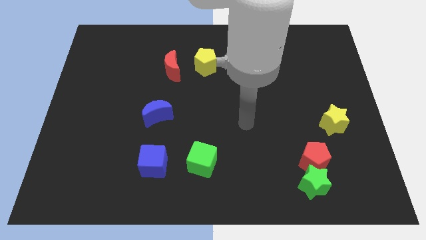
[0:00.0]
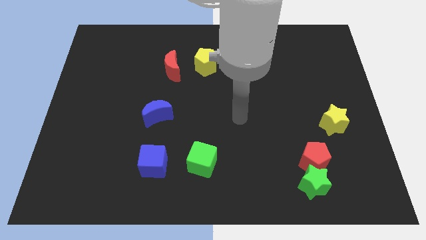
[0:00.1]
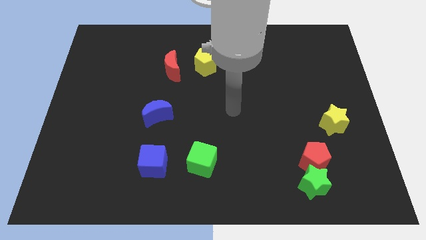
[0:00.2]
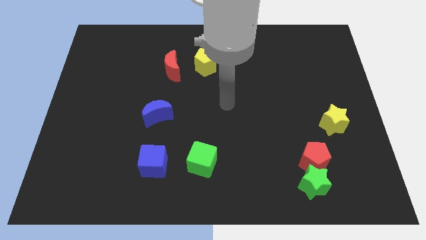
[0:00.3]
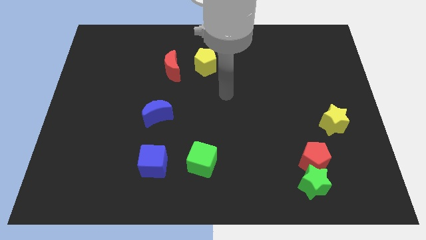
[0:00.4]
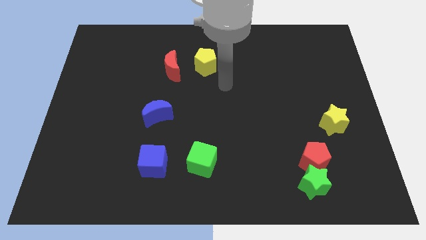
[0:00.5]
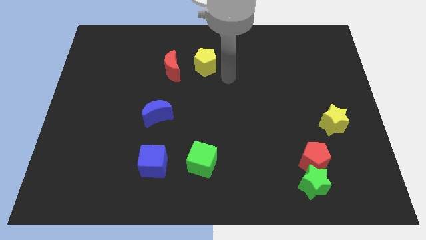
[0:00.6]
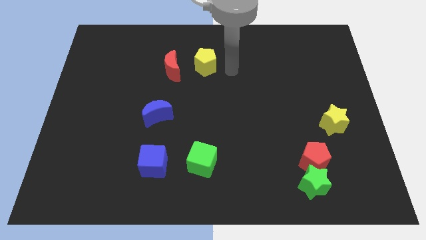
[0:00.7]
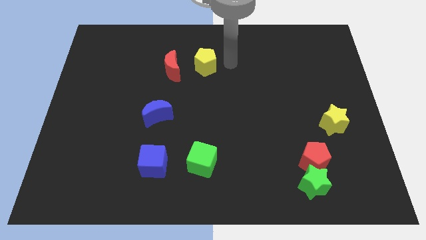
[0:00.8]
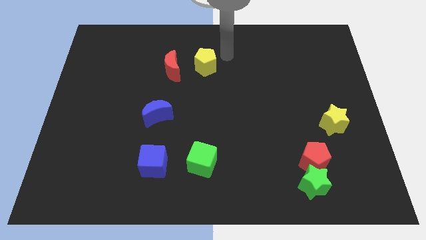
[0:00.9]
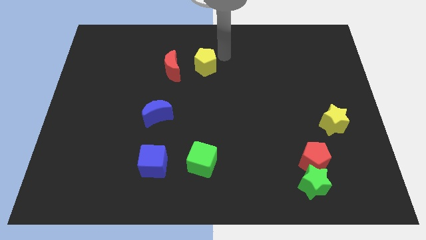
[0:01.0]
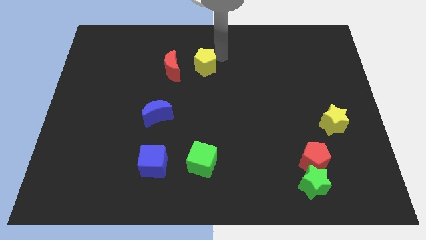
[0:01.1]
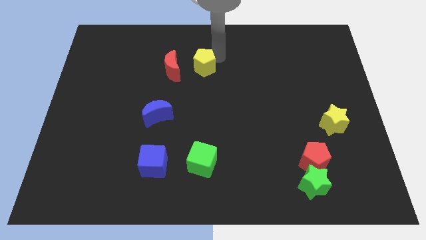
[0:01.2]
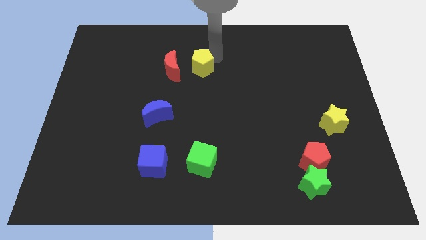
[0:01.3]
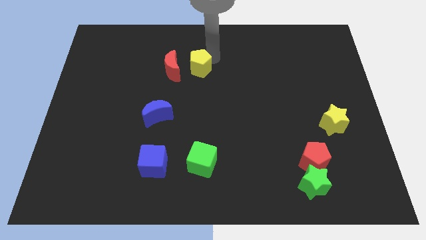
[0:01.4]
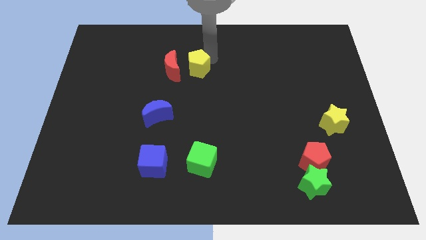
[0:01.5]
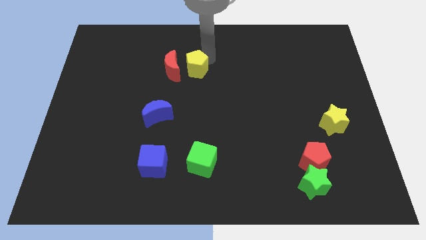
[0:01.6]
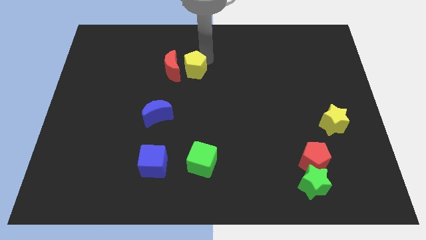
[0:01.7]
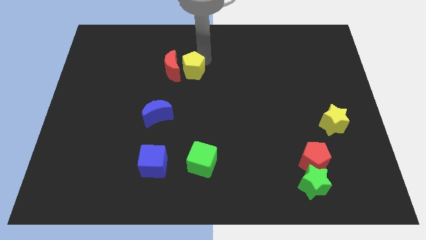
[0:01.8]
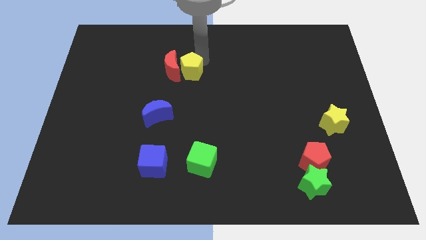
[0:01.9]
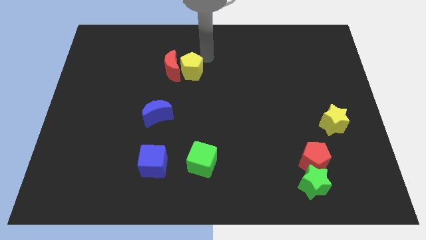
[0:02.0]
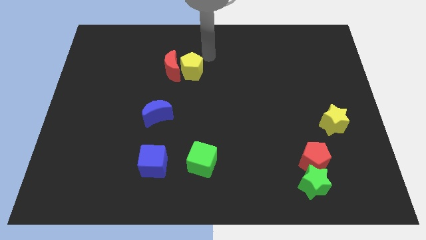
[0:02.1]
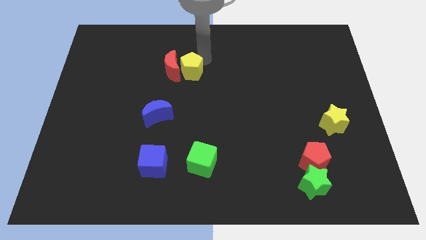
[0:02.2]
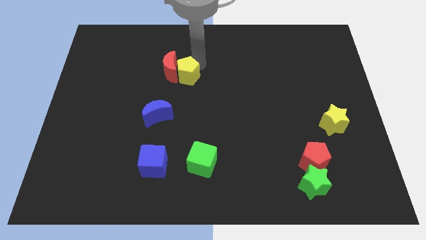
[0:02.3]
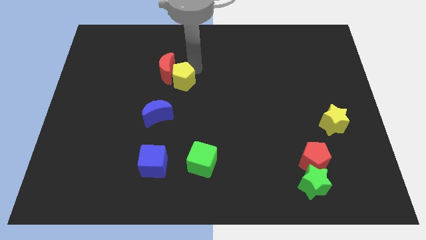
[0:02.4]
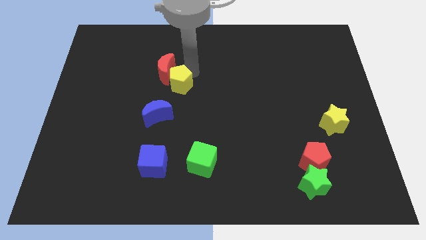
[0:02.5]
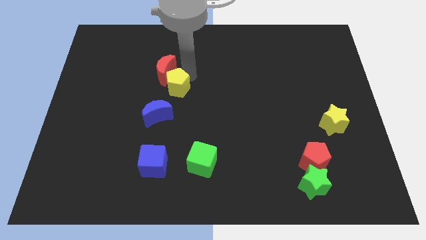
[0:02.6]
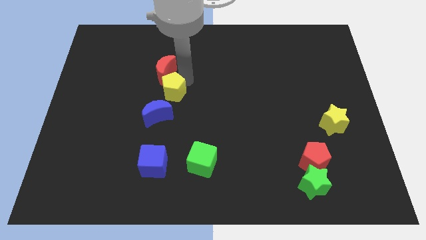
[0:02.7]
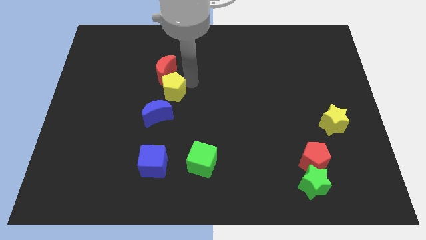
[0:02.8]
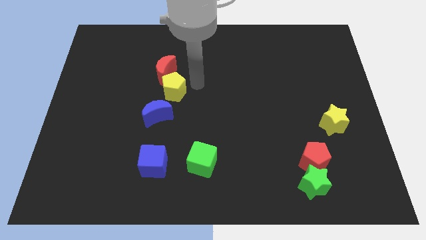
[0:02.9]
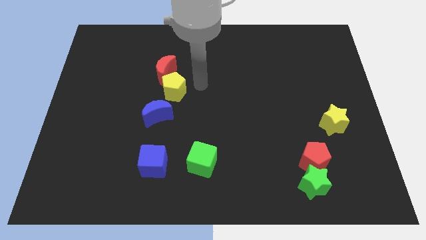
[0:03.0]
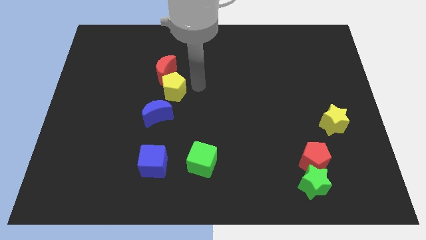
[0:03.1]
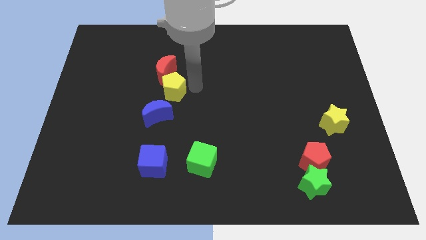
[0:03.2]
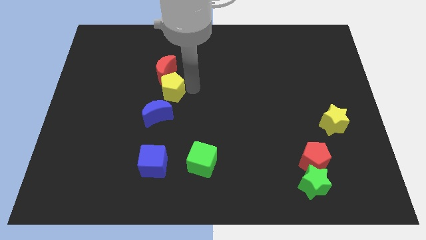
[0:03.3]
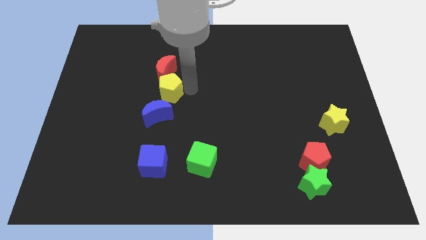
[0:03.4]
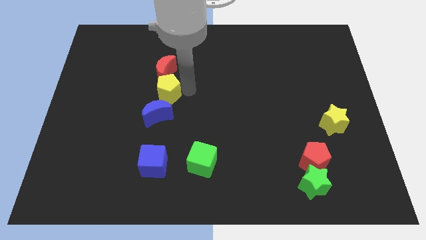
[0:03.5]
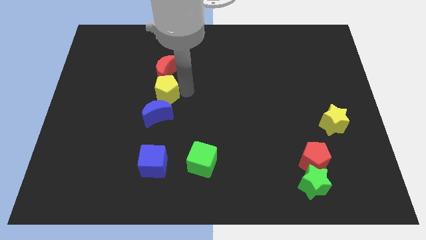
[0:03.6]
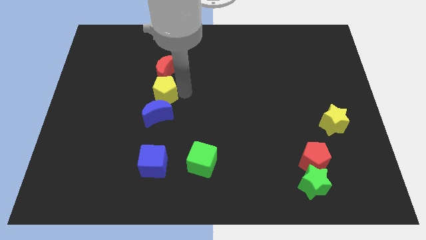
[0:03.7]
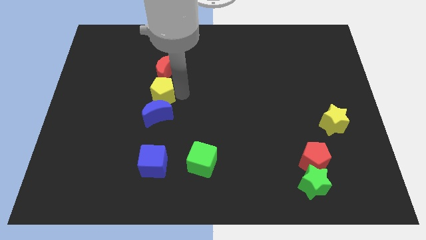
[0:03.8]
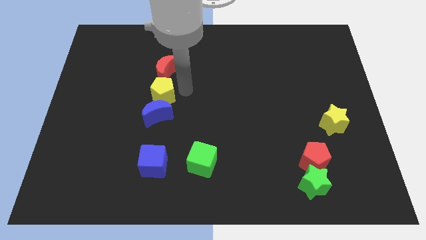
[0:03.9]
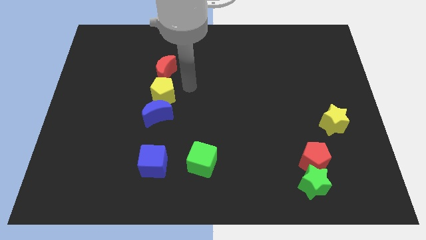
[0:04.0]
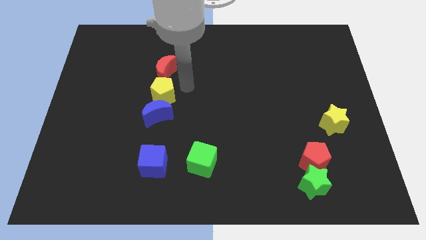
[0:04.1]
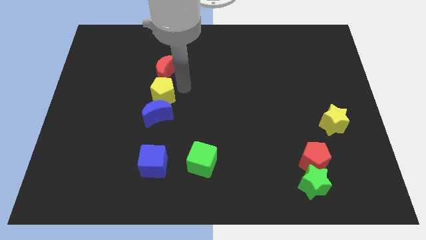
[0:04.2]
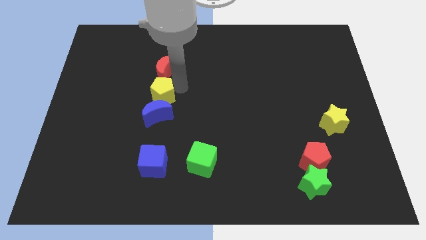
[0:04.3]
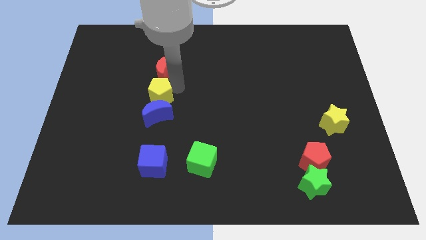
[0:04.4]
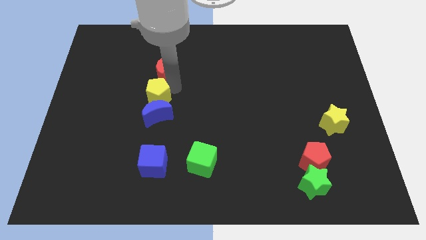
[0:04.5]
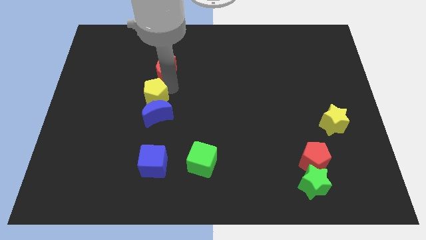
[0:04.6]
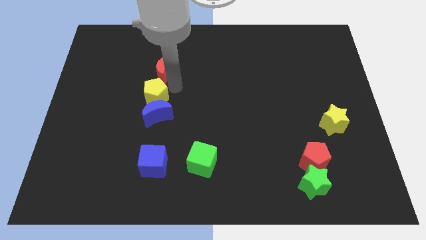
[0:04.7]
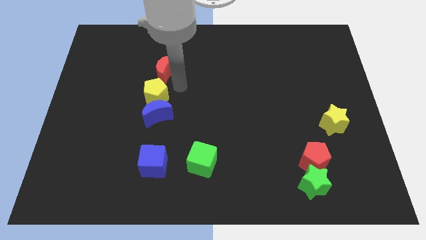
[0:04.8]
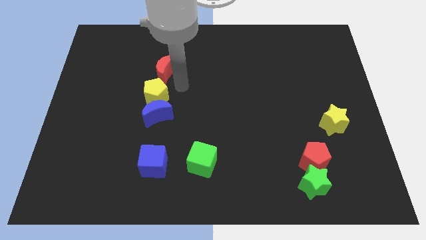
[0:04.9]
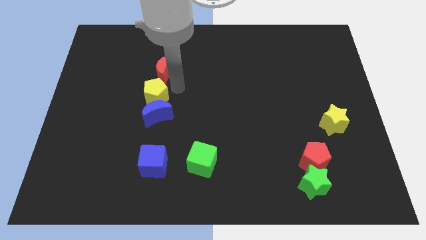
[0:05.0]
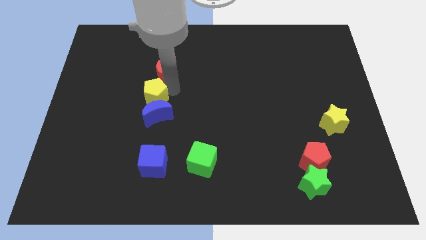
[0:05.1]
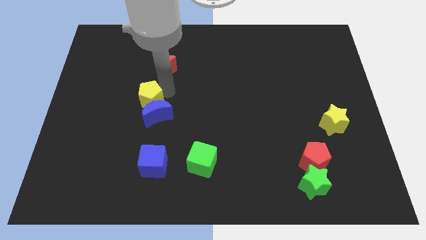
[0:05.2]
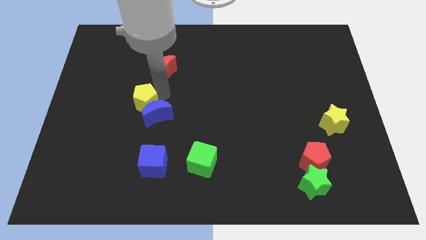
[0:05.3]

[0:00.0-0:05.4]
put the yellow pentagon left of the blue moon

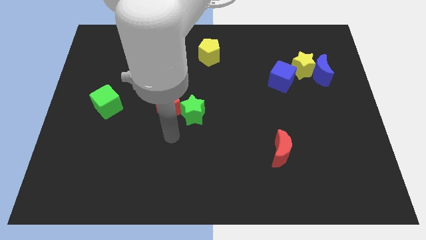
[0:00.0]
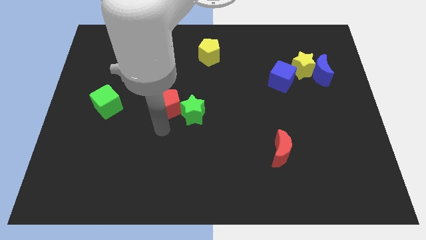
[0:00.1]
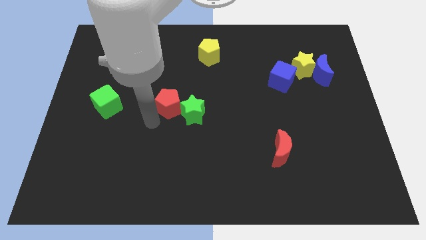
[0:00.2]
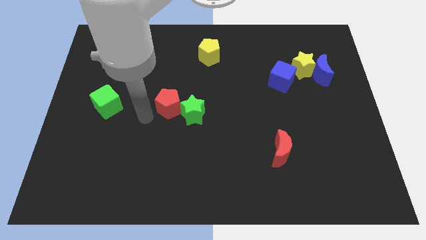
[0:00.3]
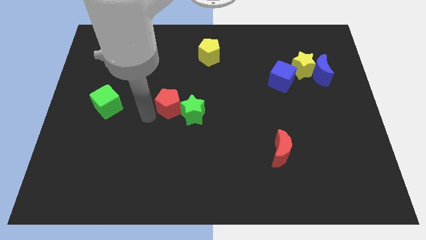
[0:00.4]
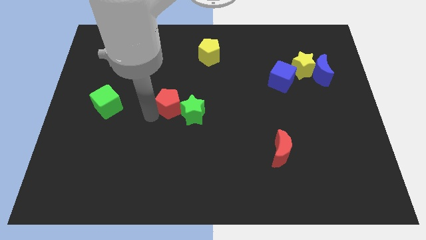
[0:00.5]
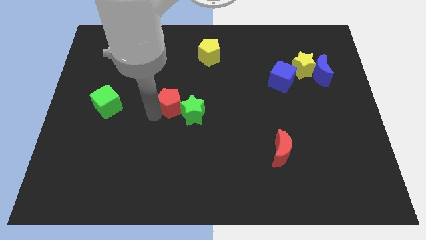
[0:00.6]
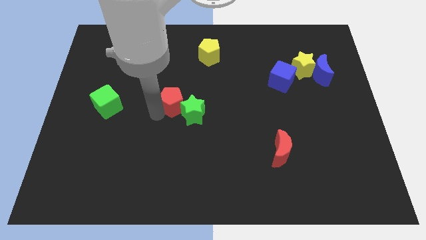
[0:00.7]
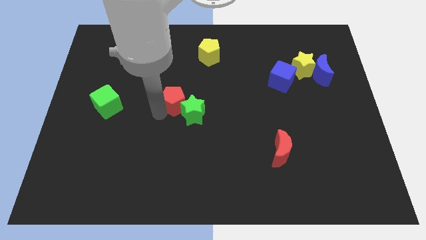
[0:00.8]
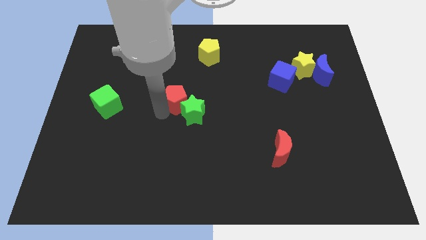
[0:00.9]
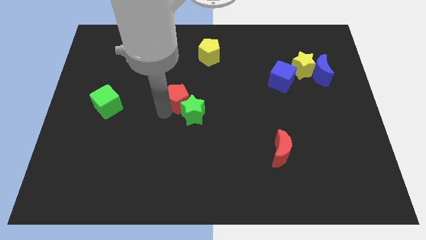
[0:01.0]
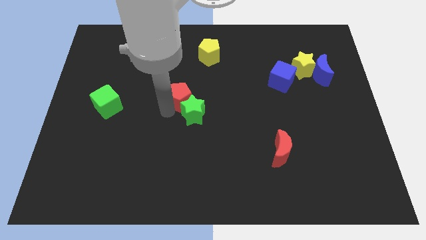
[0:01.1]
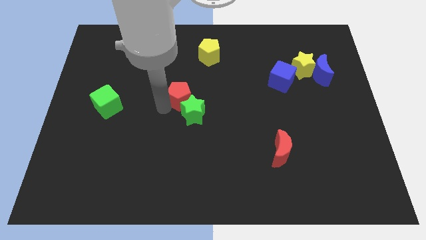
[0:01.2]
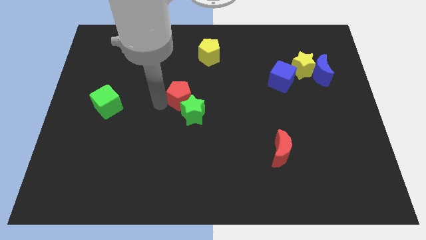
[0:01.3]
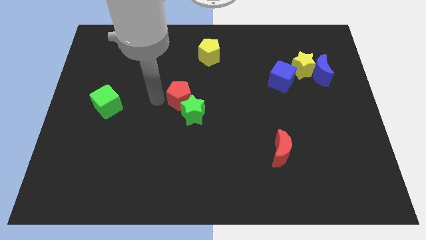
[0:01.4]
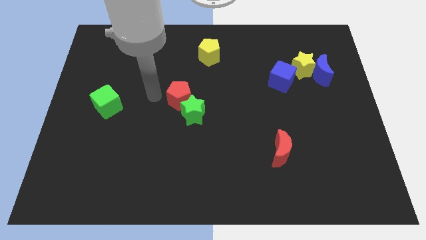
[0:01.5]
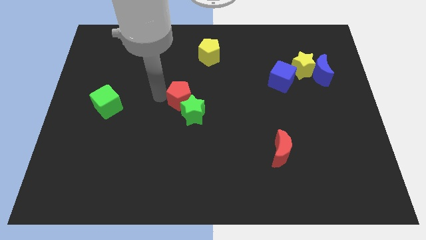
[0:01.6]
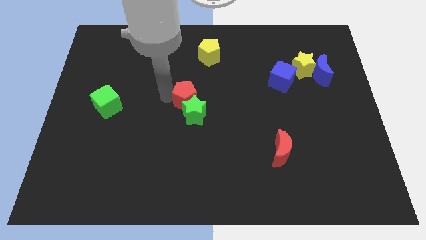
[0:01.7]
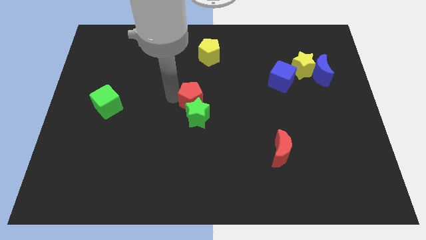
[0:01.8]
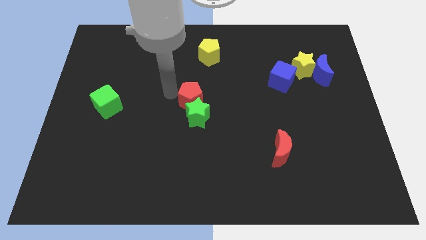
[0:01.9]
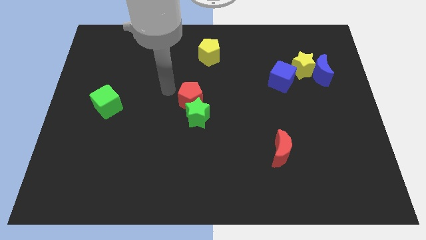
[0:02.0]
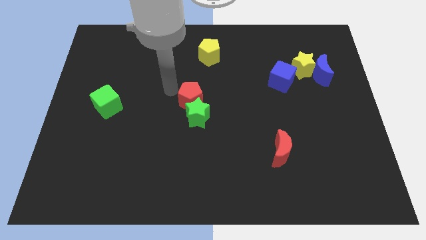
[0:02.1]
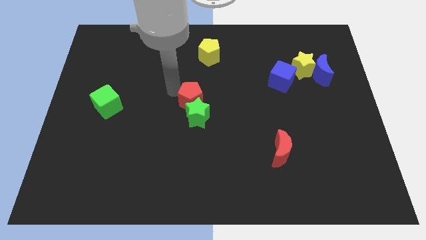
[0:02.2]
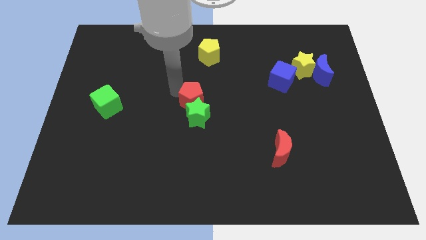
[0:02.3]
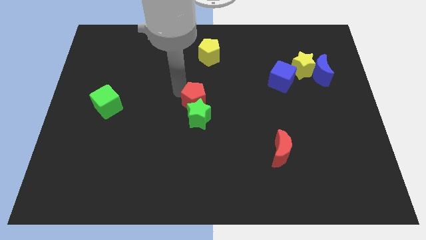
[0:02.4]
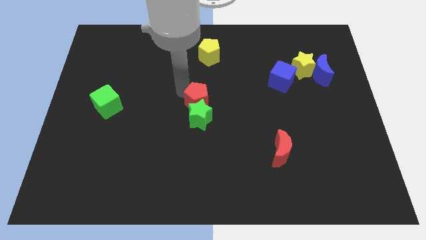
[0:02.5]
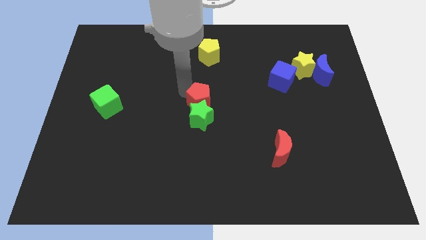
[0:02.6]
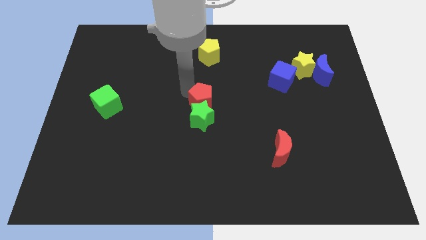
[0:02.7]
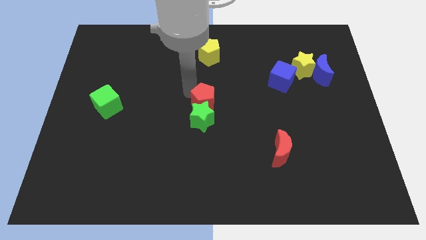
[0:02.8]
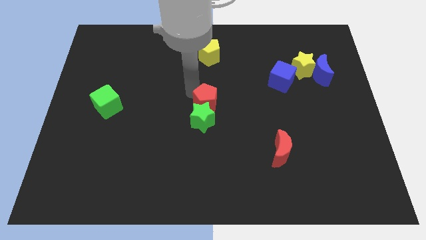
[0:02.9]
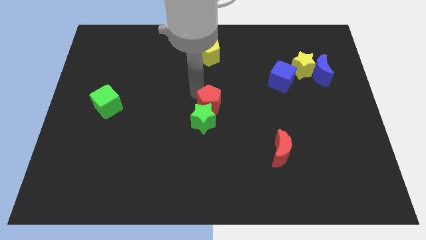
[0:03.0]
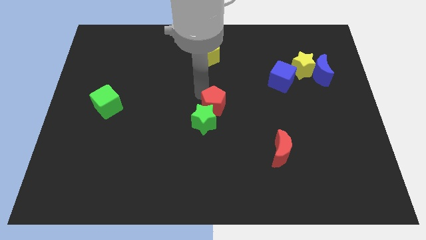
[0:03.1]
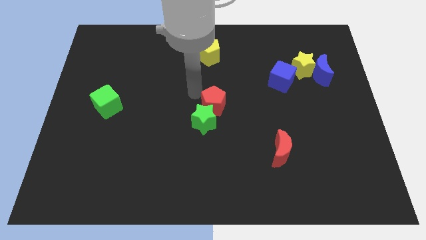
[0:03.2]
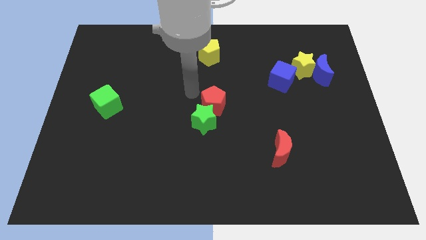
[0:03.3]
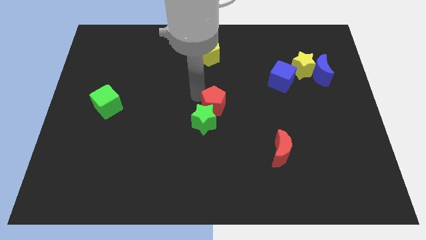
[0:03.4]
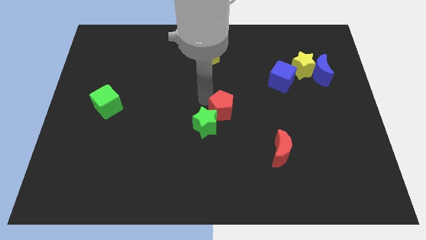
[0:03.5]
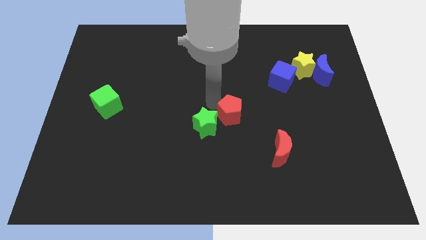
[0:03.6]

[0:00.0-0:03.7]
move the red pentagon just right of the green star
